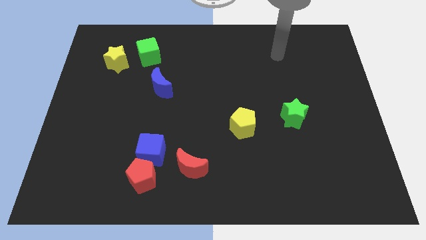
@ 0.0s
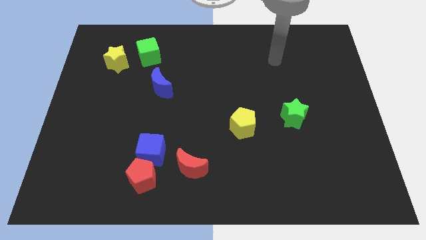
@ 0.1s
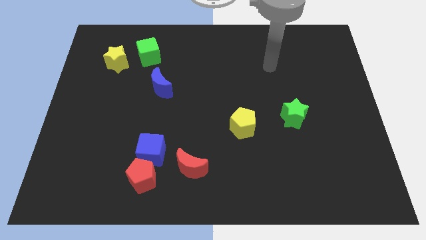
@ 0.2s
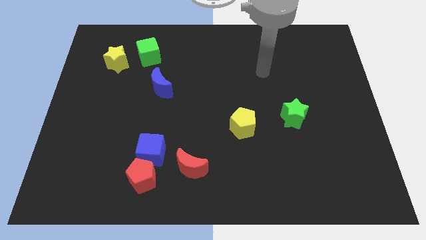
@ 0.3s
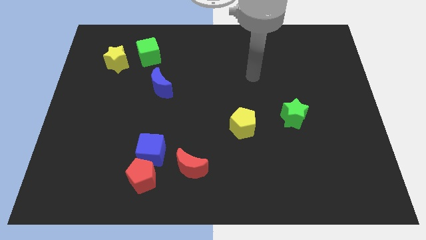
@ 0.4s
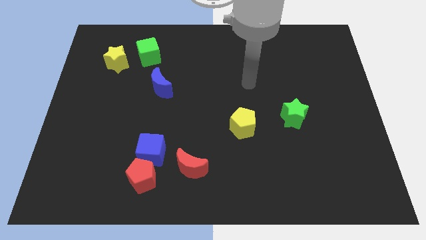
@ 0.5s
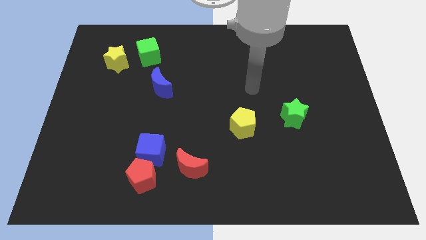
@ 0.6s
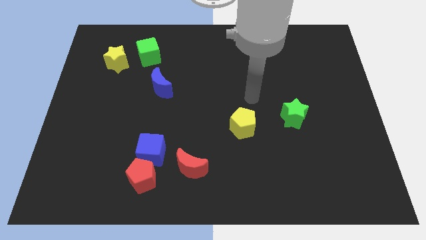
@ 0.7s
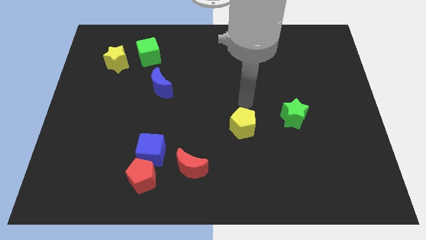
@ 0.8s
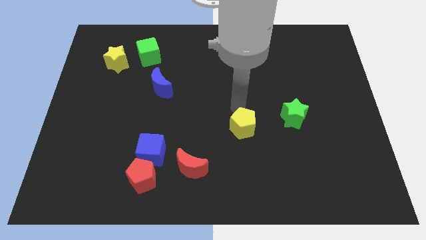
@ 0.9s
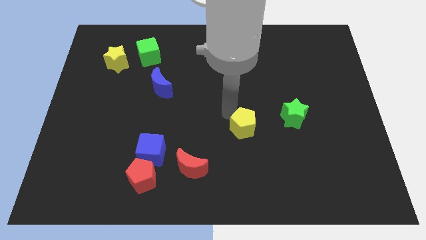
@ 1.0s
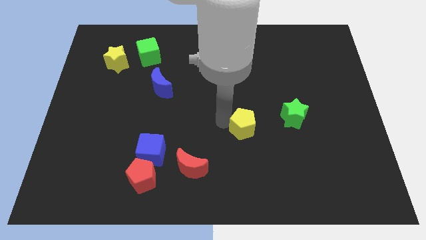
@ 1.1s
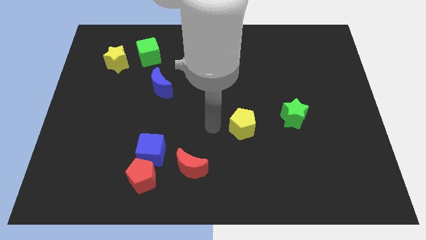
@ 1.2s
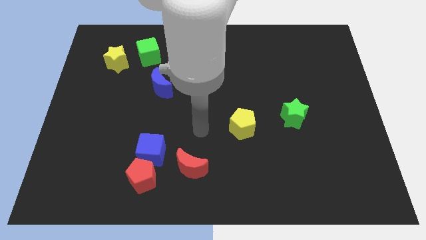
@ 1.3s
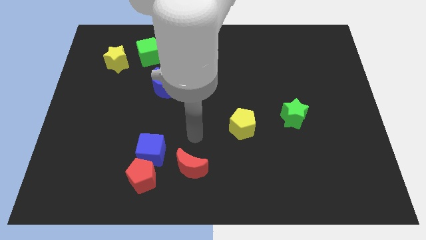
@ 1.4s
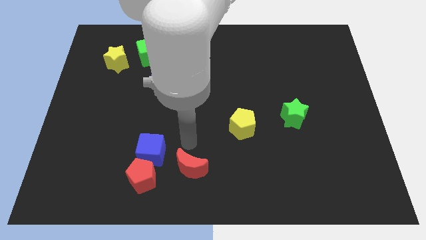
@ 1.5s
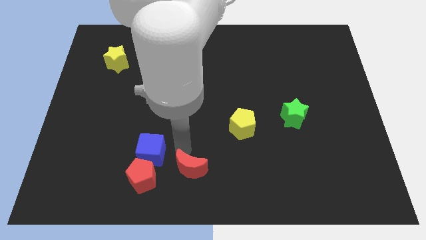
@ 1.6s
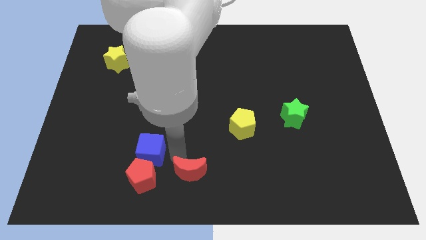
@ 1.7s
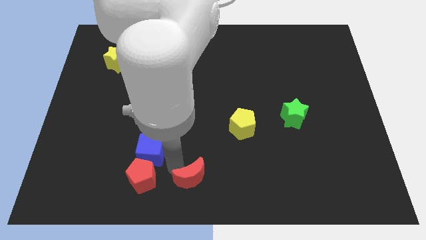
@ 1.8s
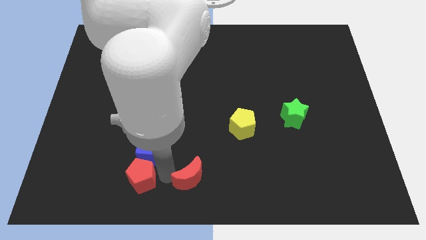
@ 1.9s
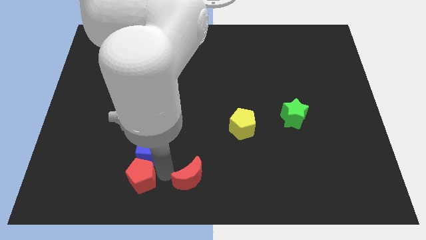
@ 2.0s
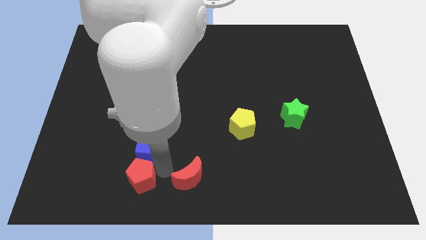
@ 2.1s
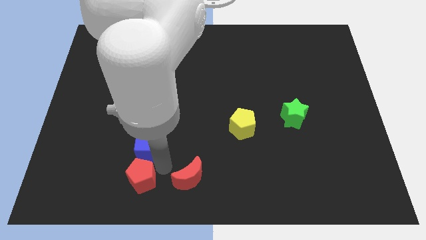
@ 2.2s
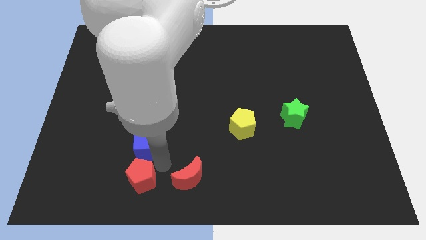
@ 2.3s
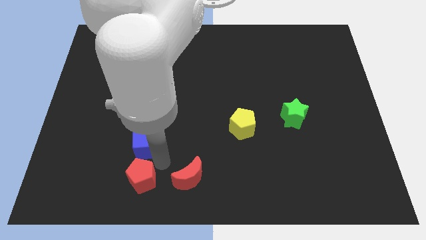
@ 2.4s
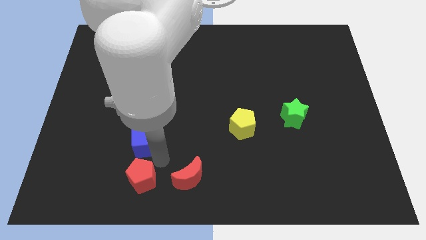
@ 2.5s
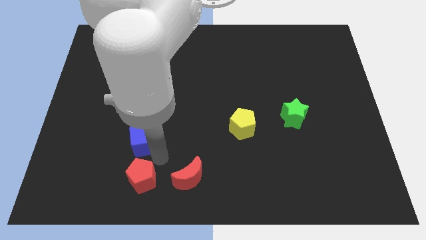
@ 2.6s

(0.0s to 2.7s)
separate the blue cube from the red pentagon and red moon

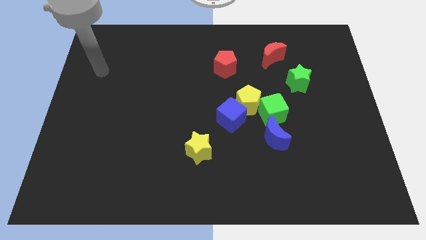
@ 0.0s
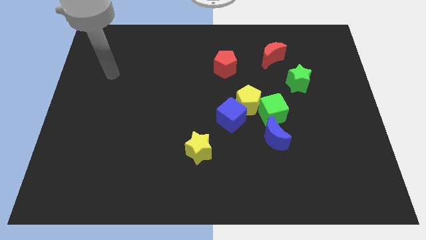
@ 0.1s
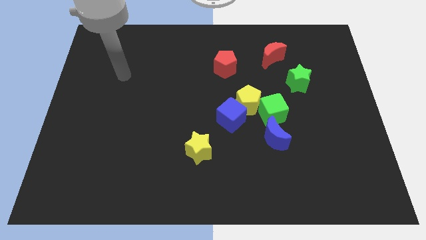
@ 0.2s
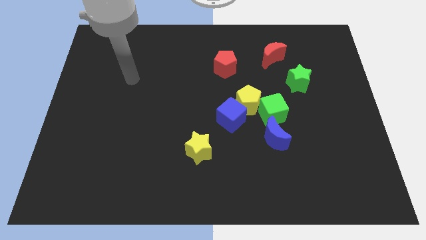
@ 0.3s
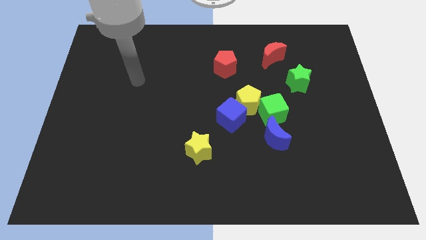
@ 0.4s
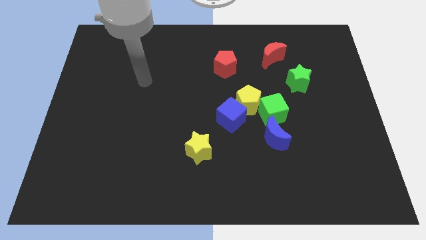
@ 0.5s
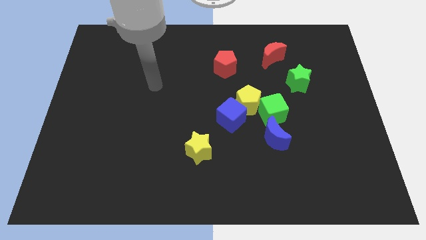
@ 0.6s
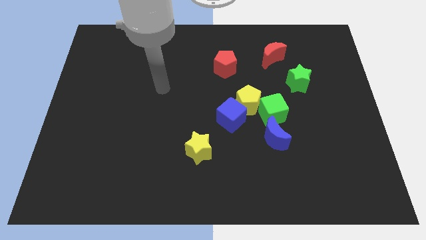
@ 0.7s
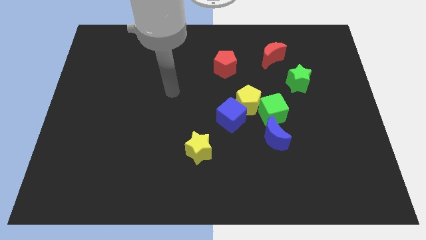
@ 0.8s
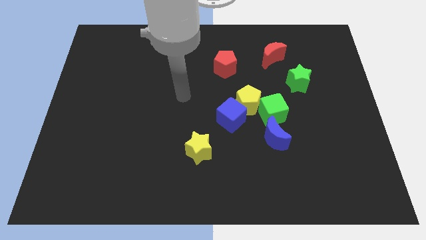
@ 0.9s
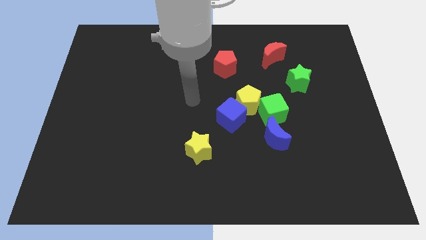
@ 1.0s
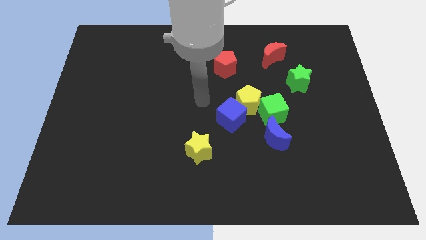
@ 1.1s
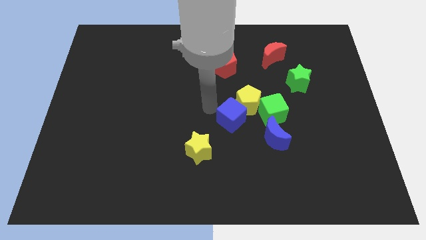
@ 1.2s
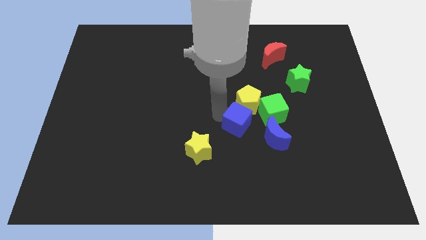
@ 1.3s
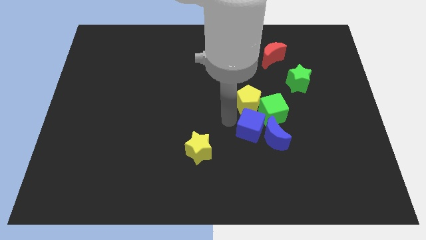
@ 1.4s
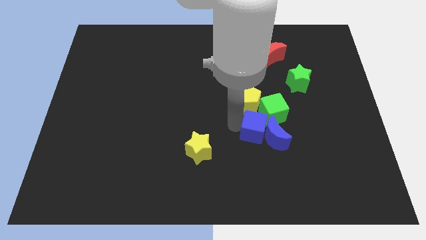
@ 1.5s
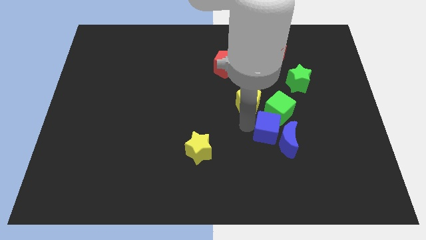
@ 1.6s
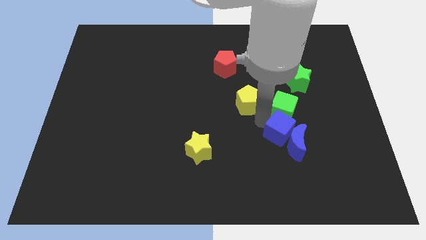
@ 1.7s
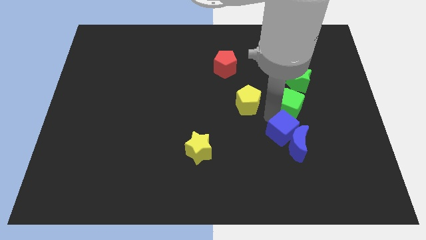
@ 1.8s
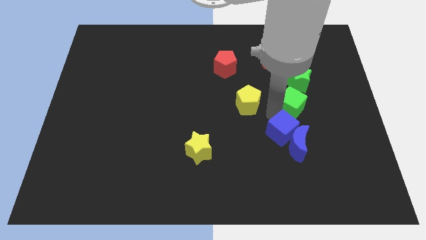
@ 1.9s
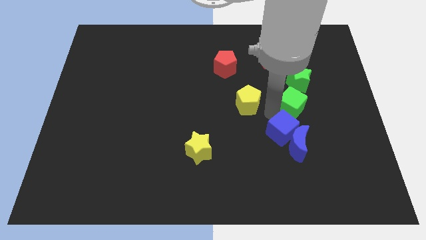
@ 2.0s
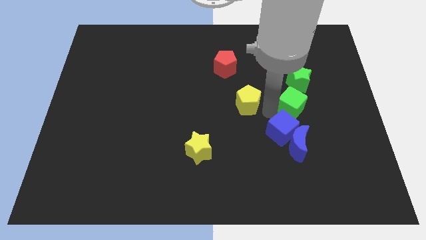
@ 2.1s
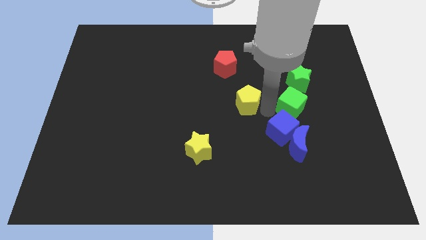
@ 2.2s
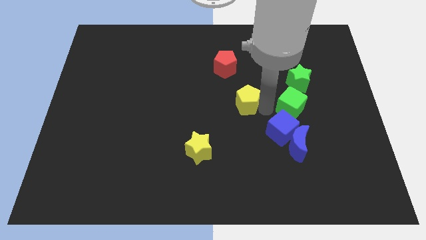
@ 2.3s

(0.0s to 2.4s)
separate the yellow pentagon from the blue cube and green cube

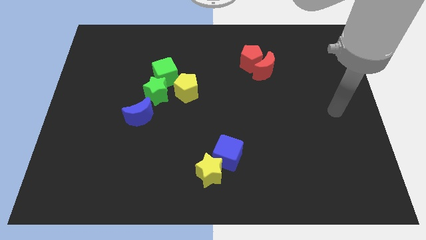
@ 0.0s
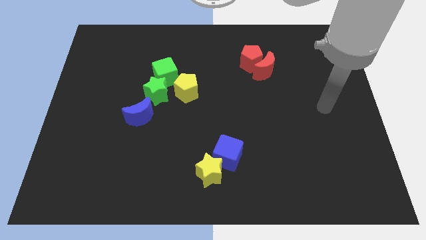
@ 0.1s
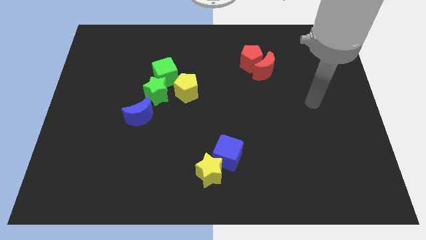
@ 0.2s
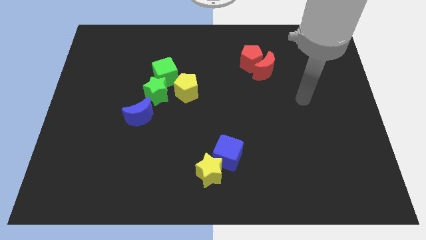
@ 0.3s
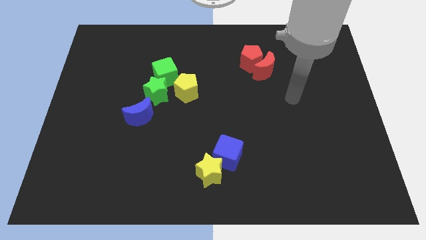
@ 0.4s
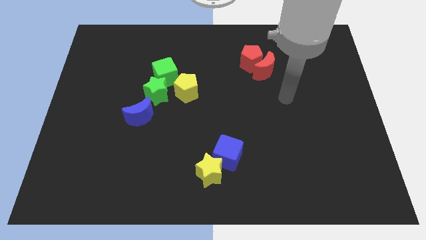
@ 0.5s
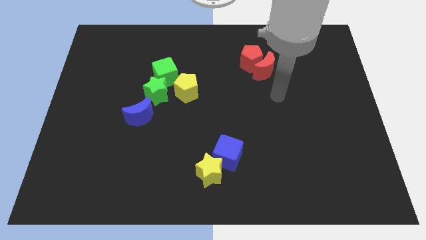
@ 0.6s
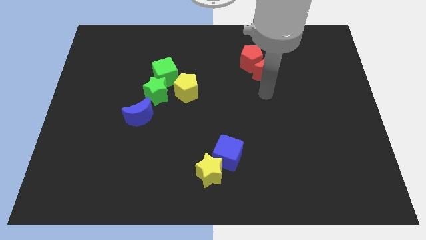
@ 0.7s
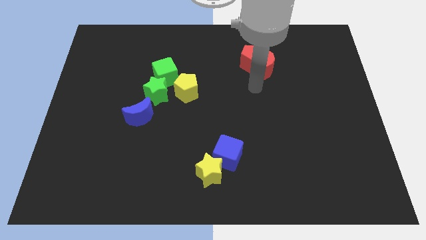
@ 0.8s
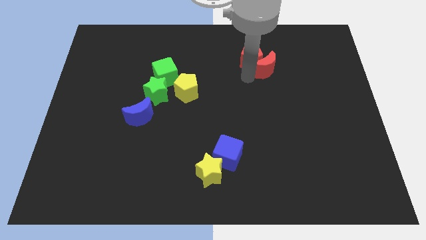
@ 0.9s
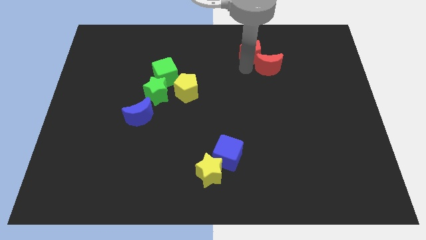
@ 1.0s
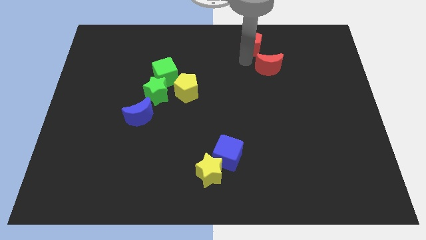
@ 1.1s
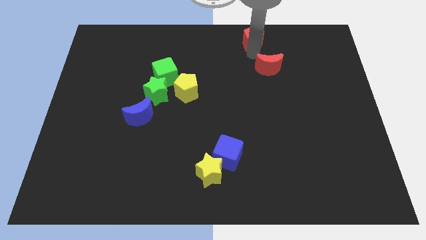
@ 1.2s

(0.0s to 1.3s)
separate the red moon from the red pentagon

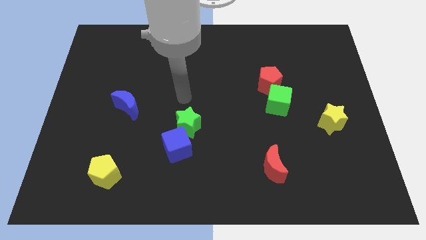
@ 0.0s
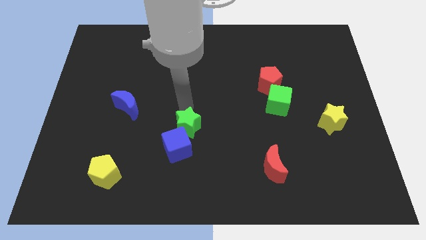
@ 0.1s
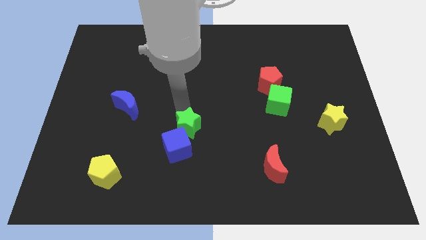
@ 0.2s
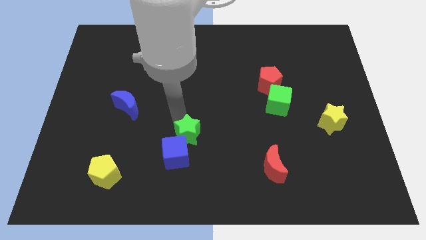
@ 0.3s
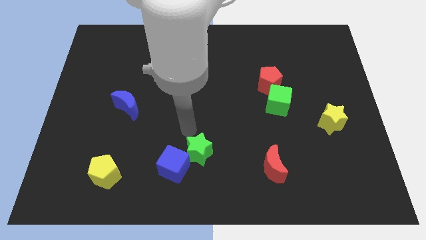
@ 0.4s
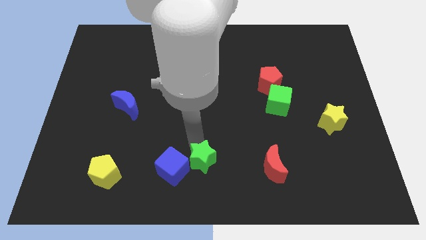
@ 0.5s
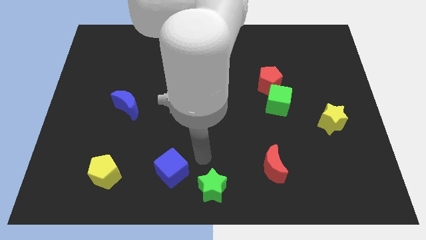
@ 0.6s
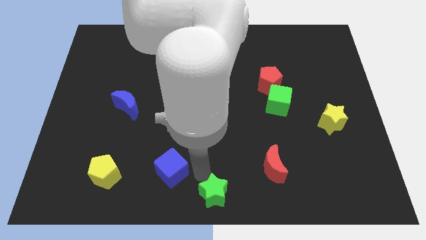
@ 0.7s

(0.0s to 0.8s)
move the blue cube away from the green star

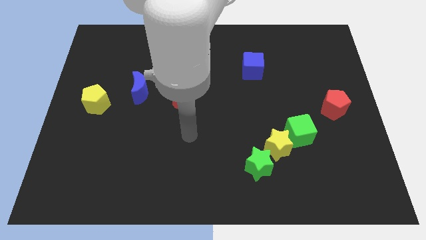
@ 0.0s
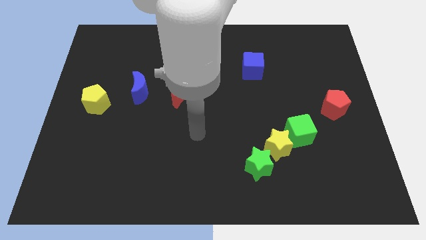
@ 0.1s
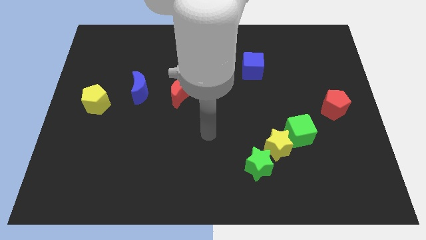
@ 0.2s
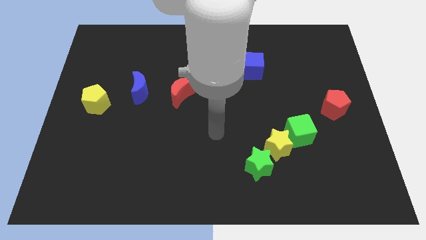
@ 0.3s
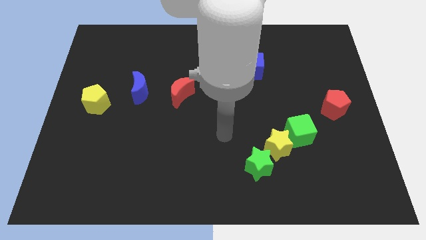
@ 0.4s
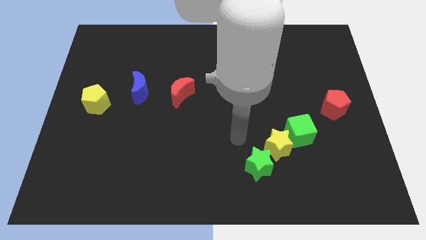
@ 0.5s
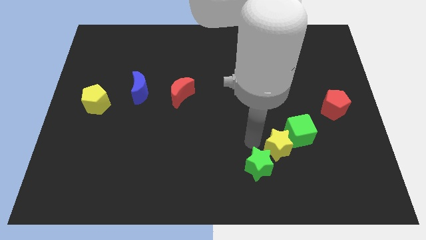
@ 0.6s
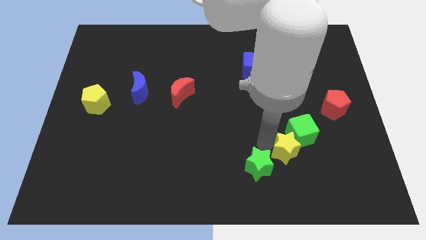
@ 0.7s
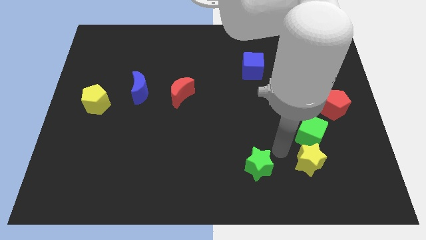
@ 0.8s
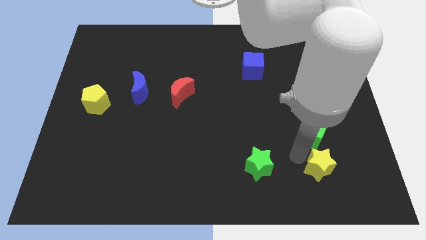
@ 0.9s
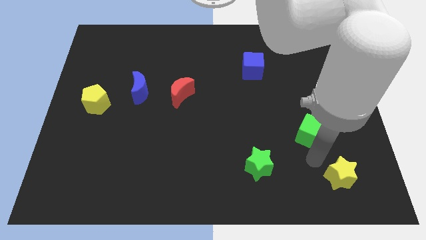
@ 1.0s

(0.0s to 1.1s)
move the green cube away from the yellow star

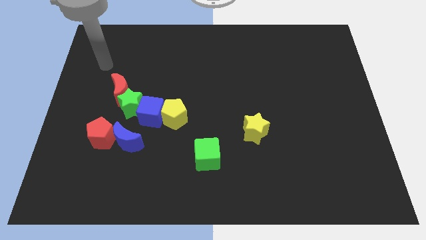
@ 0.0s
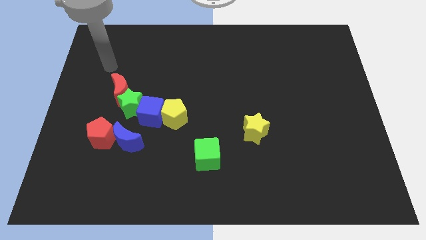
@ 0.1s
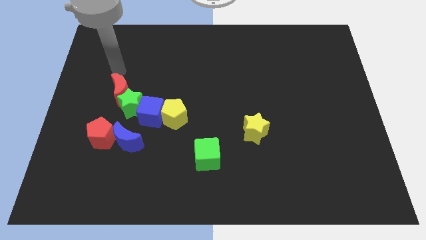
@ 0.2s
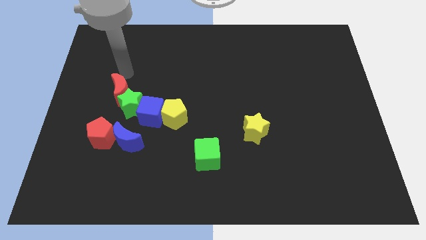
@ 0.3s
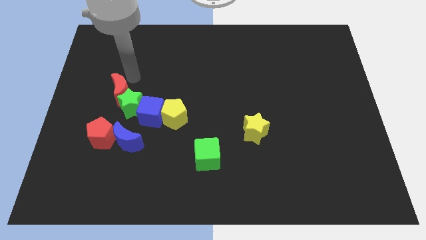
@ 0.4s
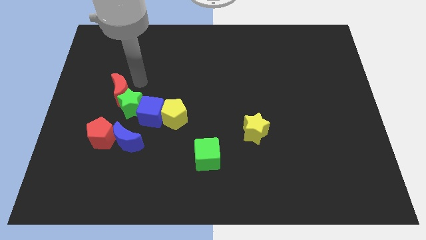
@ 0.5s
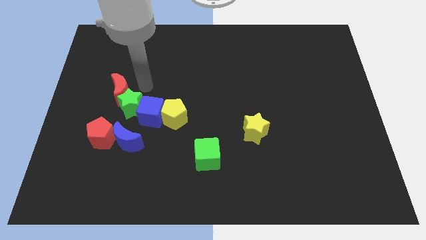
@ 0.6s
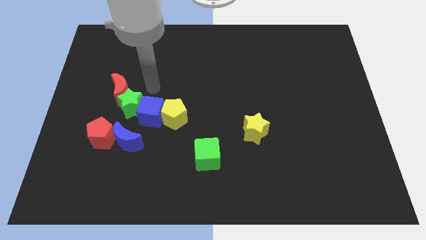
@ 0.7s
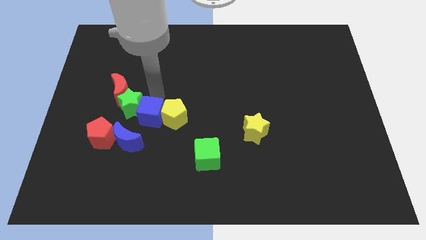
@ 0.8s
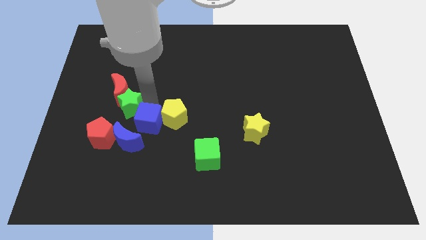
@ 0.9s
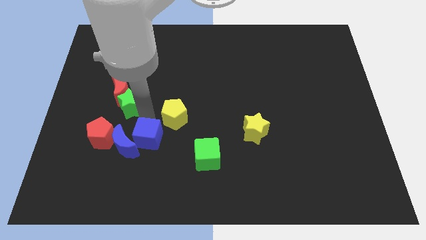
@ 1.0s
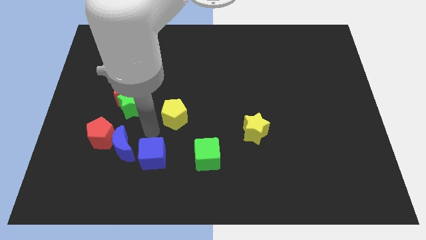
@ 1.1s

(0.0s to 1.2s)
separate the yellow pentagon from the blue cube

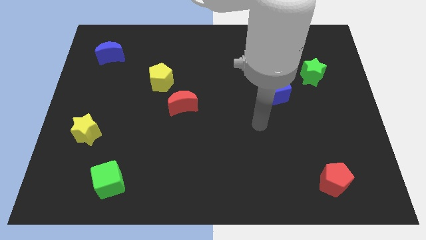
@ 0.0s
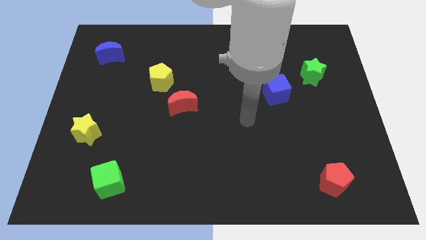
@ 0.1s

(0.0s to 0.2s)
separate the red moon from the yellow pentagon
